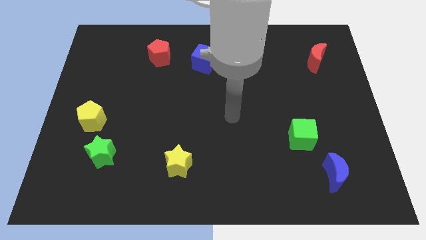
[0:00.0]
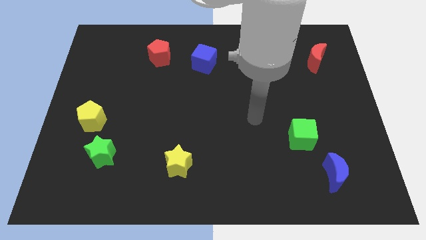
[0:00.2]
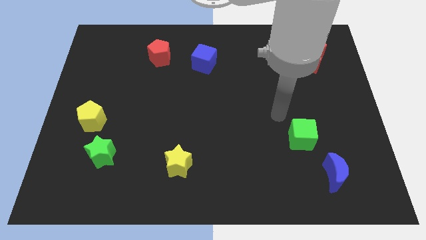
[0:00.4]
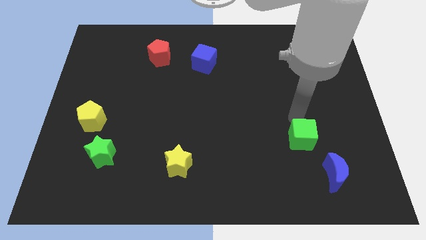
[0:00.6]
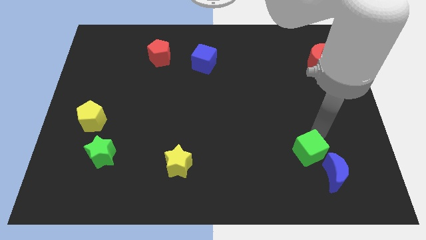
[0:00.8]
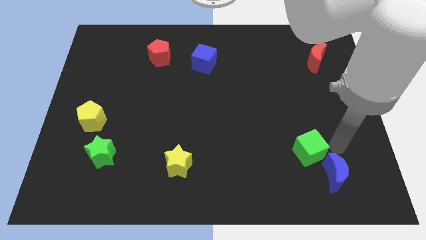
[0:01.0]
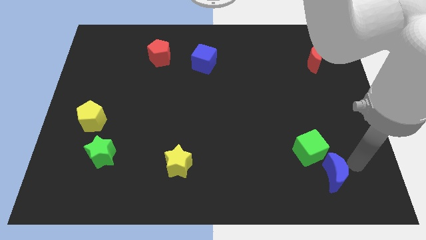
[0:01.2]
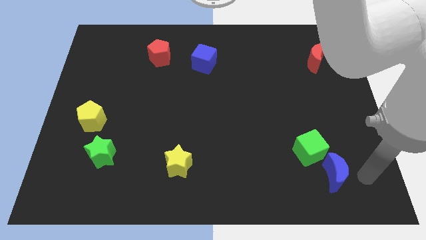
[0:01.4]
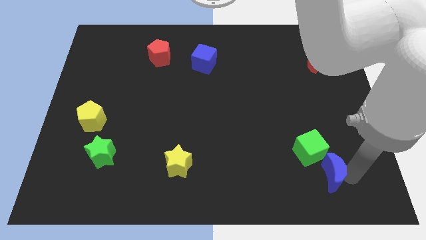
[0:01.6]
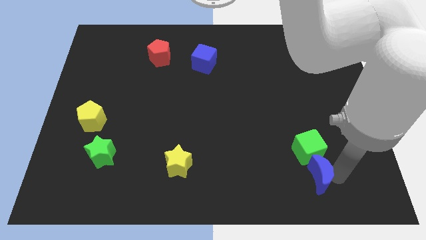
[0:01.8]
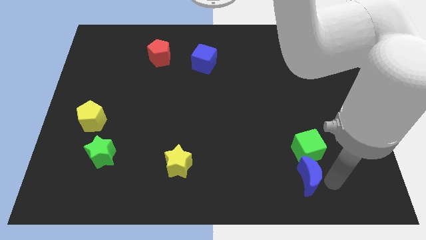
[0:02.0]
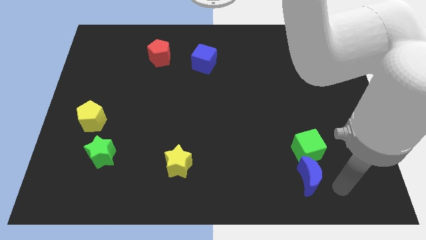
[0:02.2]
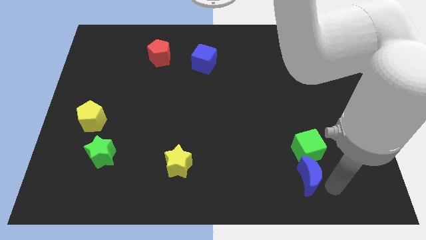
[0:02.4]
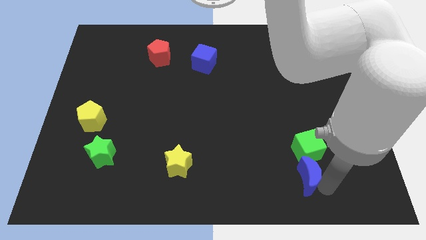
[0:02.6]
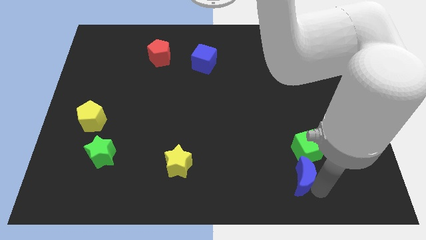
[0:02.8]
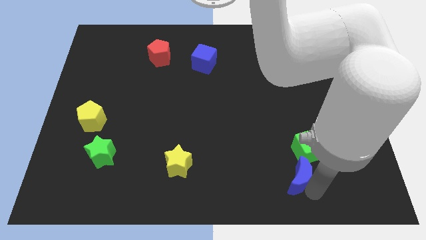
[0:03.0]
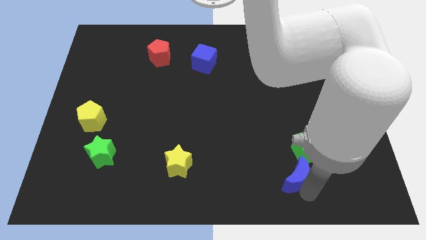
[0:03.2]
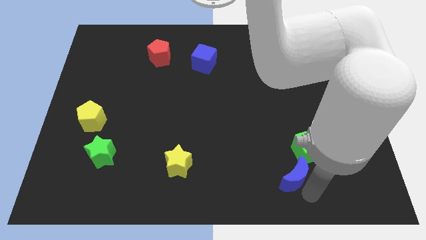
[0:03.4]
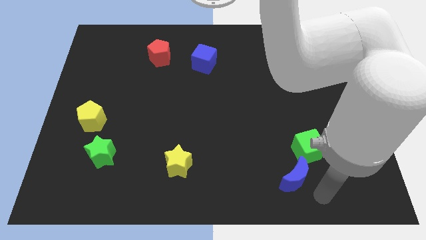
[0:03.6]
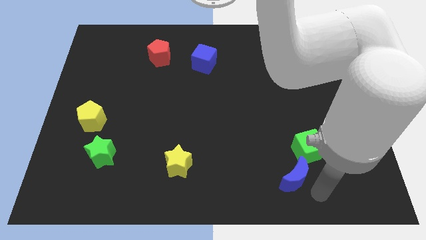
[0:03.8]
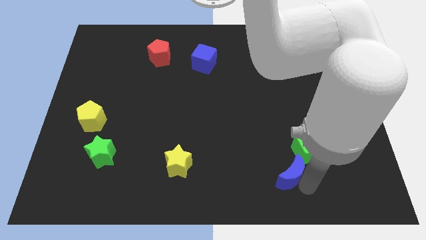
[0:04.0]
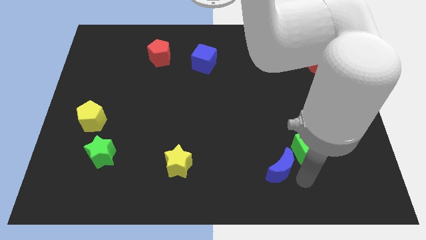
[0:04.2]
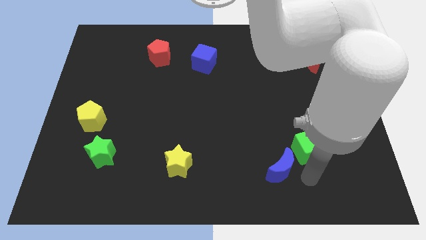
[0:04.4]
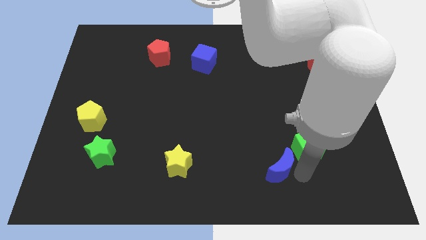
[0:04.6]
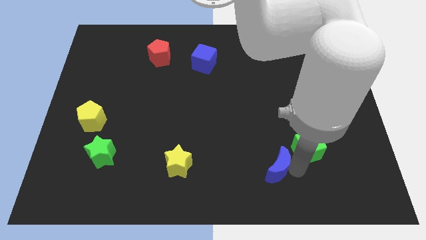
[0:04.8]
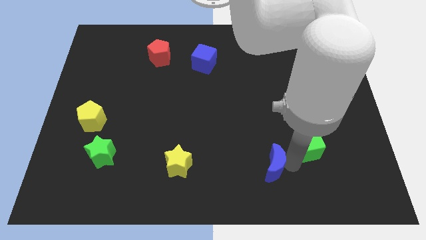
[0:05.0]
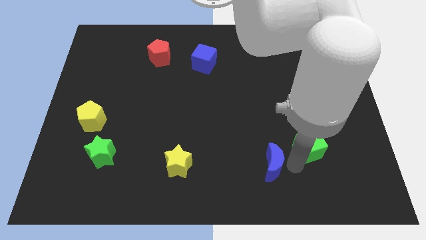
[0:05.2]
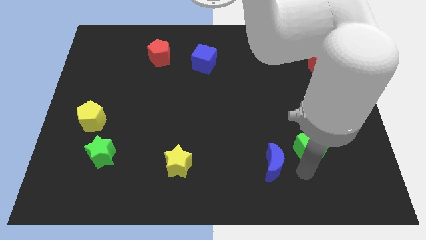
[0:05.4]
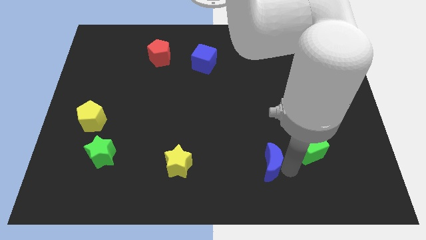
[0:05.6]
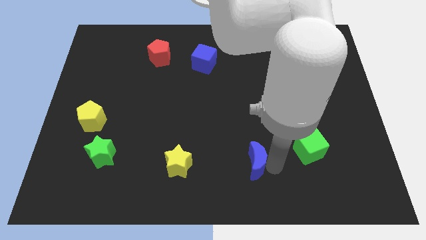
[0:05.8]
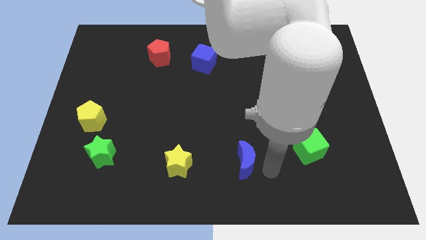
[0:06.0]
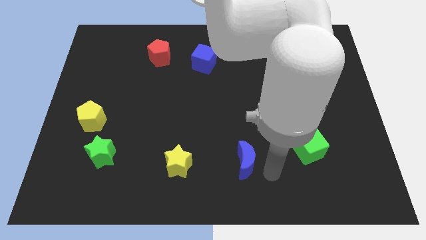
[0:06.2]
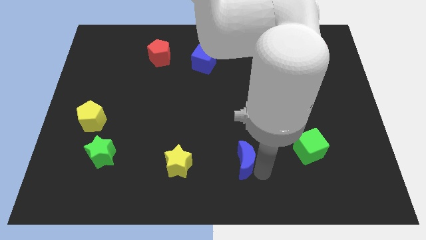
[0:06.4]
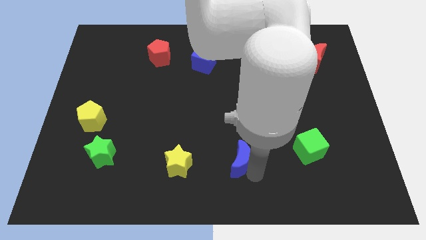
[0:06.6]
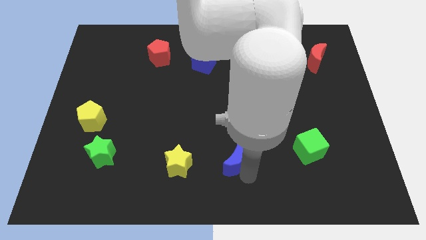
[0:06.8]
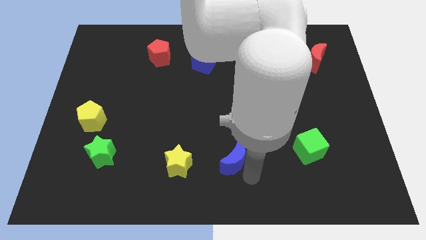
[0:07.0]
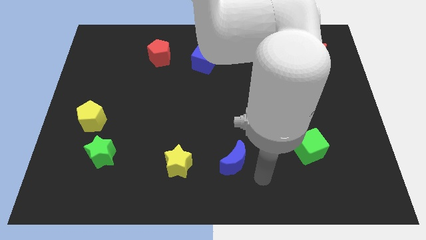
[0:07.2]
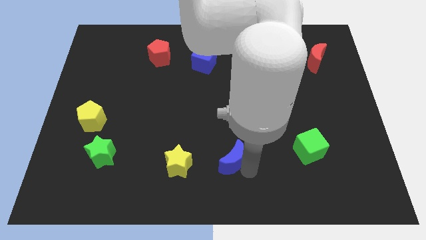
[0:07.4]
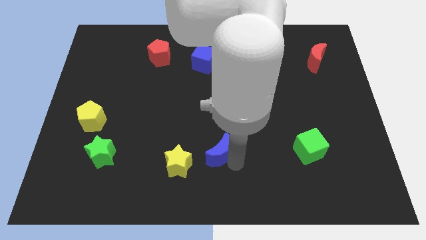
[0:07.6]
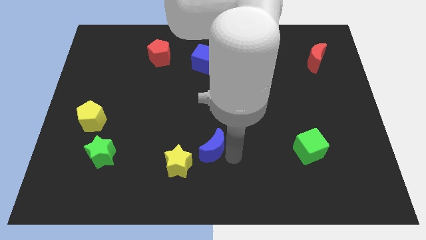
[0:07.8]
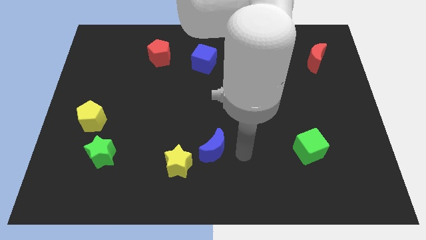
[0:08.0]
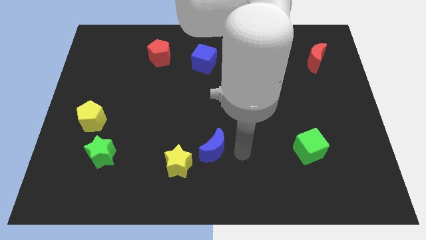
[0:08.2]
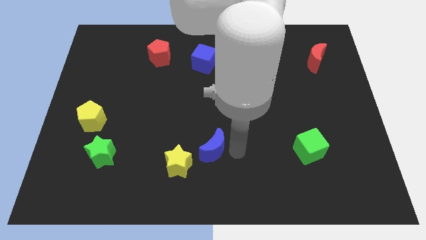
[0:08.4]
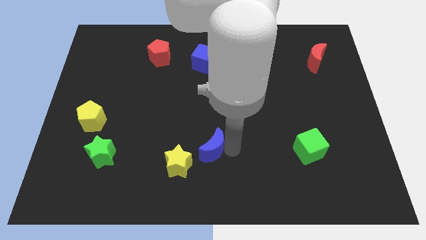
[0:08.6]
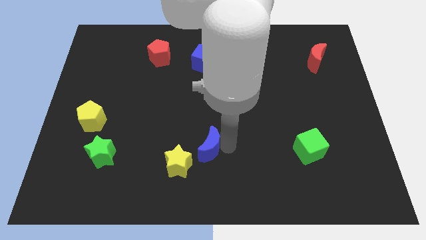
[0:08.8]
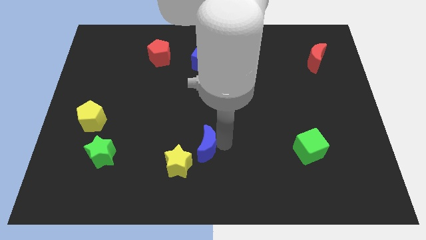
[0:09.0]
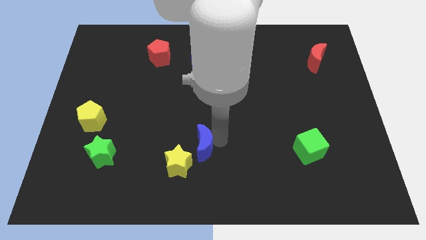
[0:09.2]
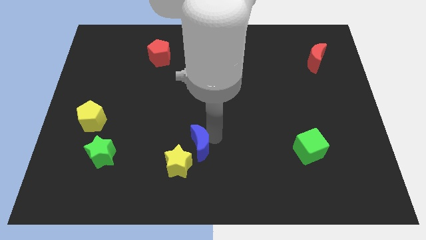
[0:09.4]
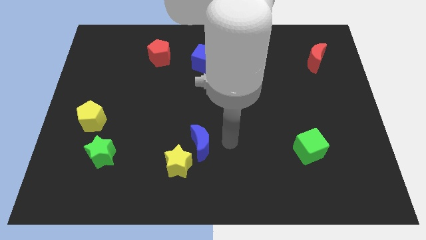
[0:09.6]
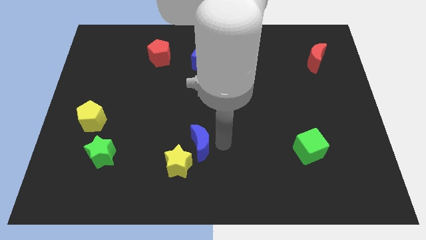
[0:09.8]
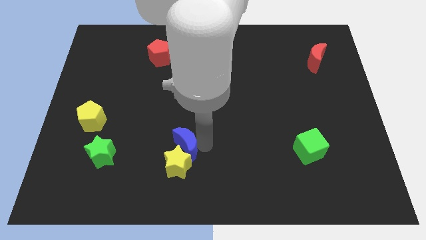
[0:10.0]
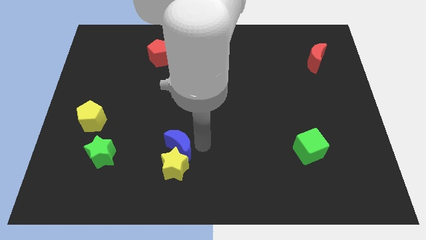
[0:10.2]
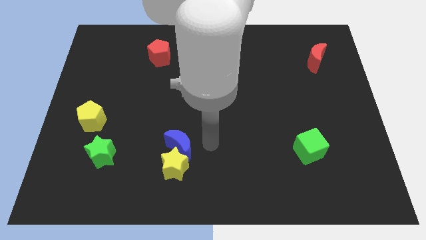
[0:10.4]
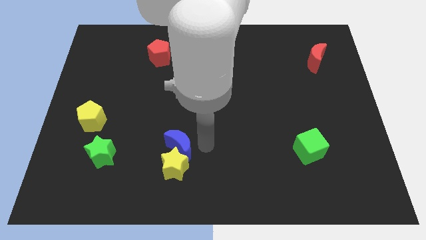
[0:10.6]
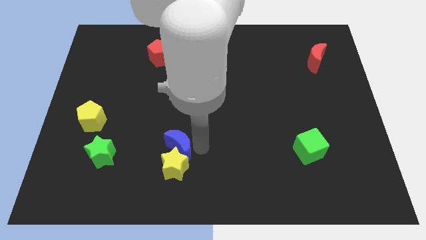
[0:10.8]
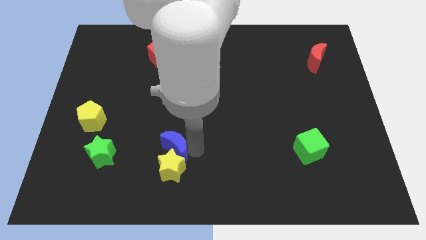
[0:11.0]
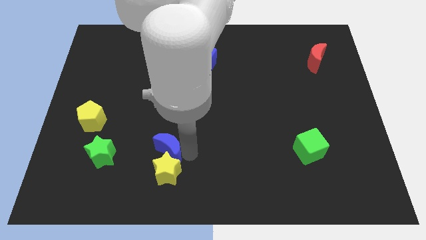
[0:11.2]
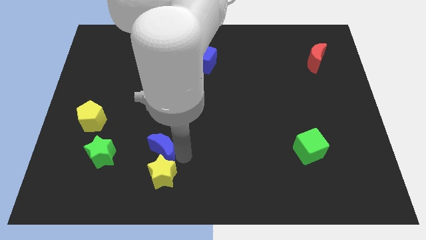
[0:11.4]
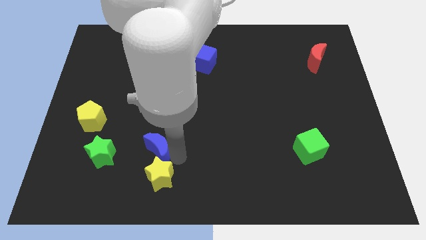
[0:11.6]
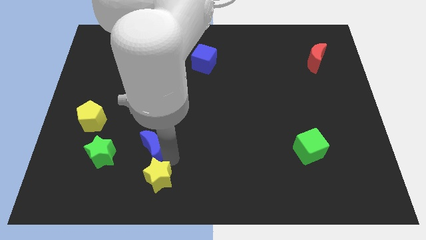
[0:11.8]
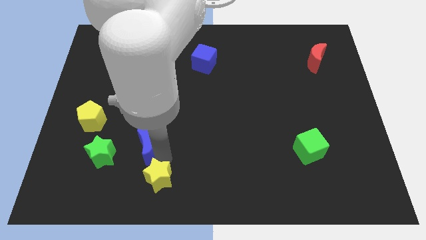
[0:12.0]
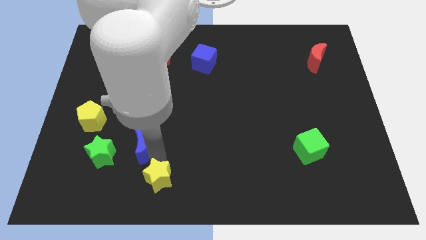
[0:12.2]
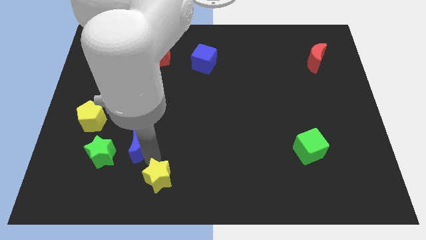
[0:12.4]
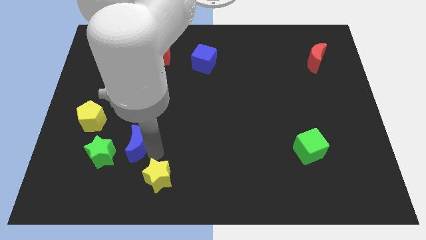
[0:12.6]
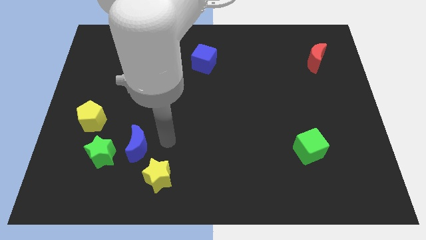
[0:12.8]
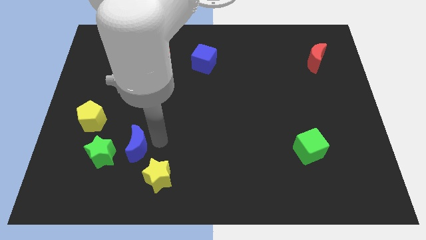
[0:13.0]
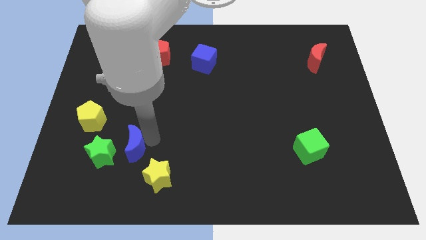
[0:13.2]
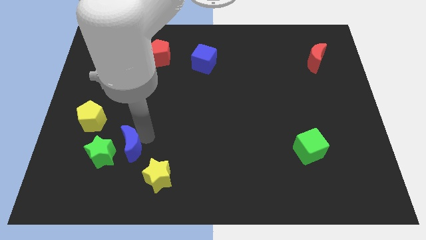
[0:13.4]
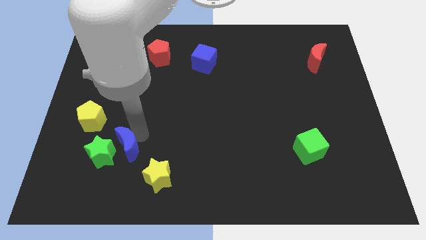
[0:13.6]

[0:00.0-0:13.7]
put the blue moon towards the green star

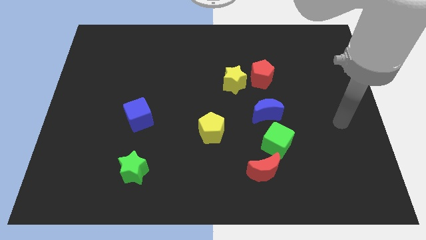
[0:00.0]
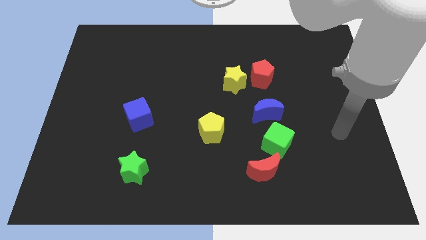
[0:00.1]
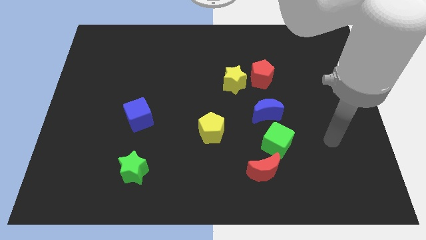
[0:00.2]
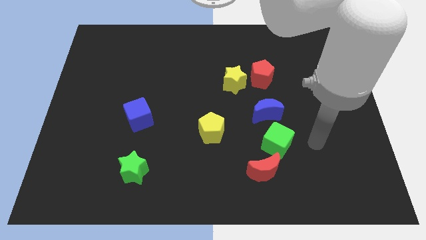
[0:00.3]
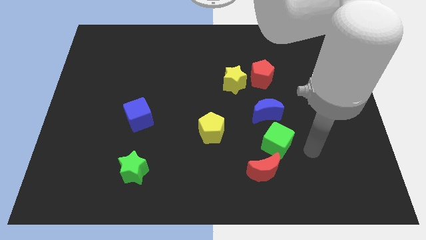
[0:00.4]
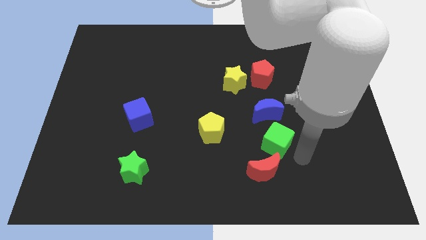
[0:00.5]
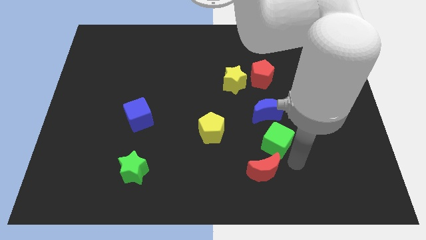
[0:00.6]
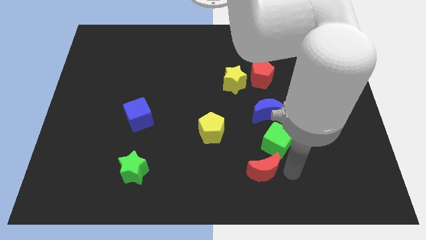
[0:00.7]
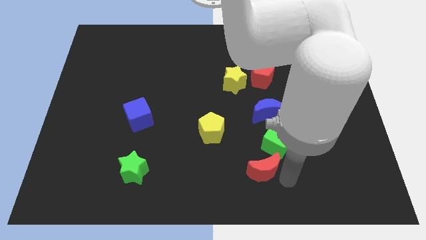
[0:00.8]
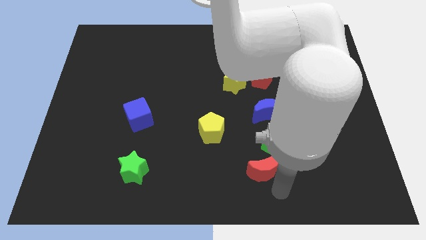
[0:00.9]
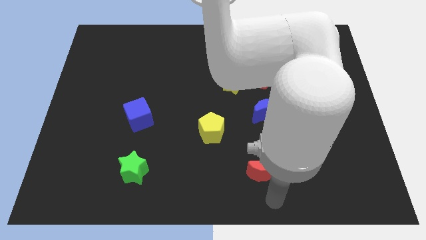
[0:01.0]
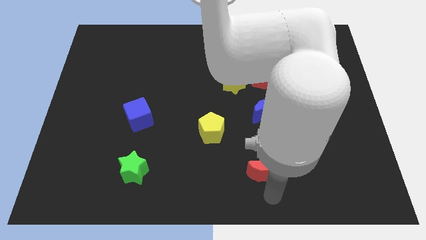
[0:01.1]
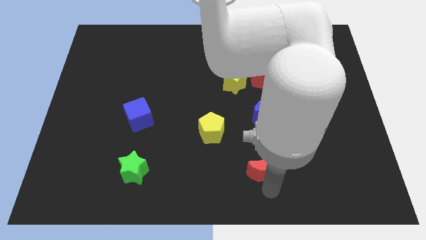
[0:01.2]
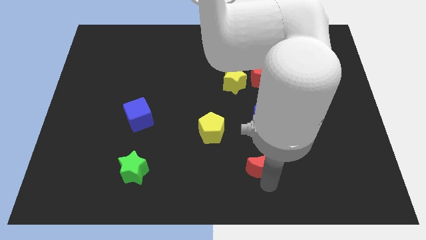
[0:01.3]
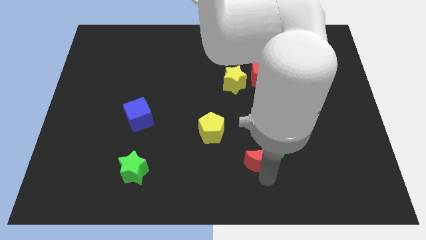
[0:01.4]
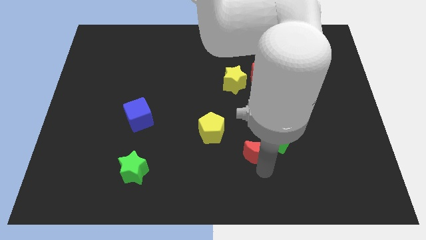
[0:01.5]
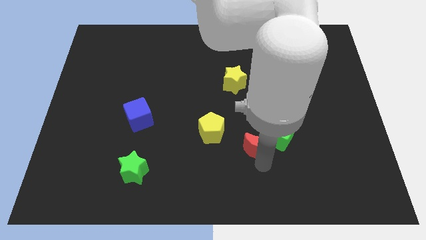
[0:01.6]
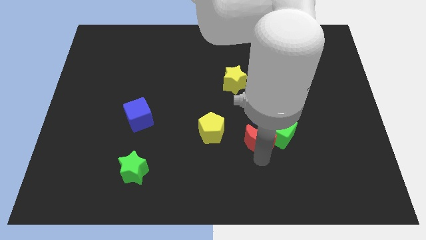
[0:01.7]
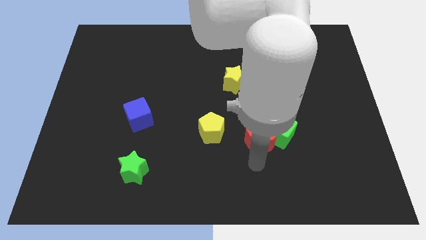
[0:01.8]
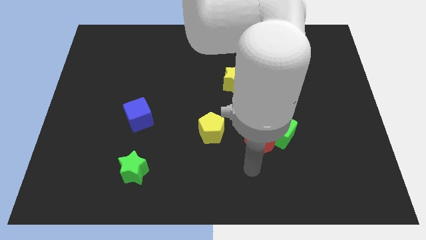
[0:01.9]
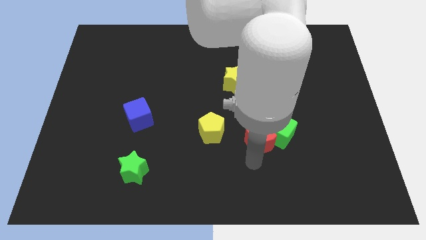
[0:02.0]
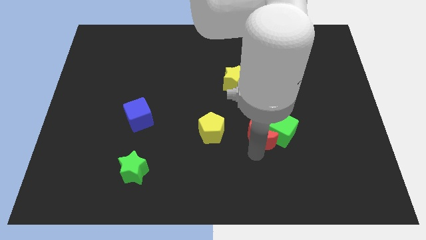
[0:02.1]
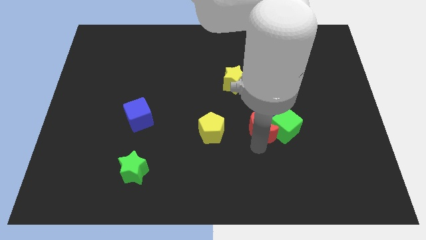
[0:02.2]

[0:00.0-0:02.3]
slide the red moon towards the blue moon
